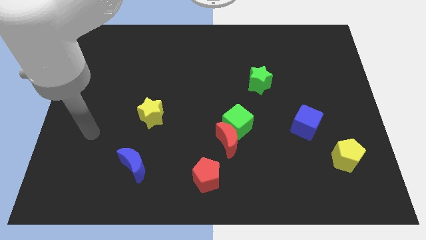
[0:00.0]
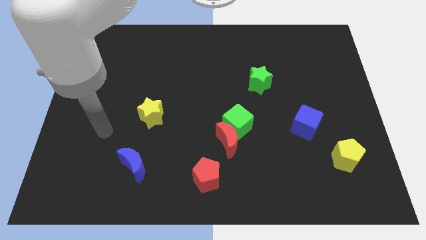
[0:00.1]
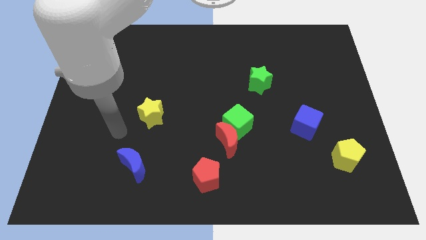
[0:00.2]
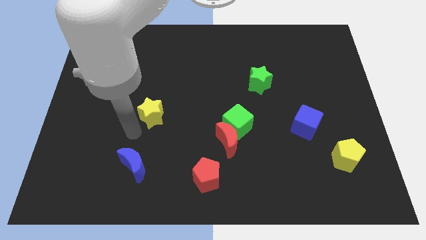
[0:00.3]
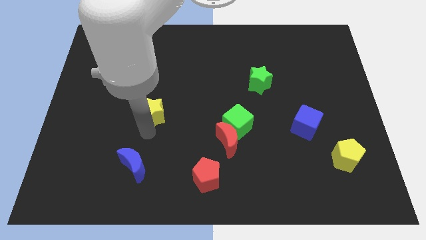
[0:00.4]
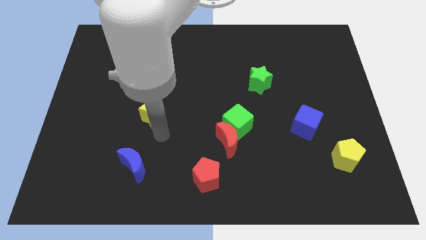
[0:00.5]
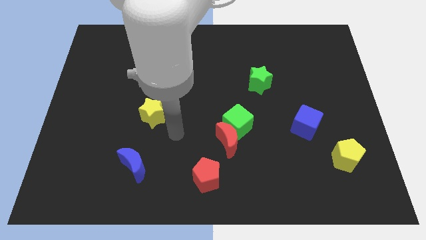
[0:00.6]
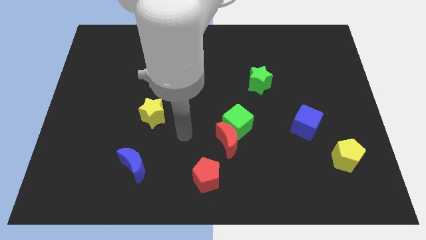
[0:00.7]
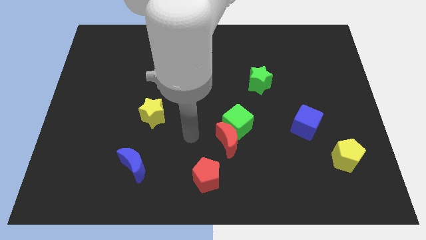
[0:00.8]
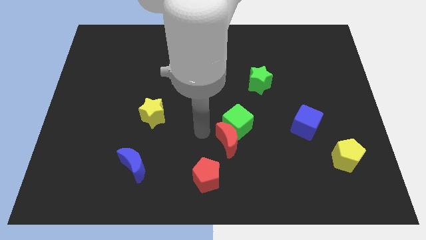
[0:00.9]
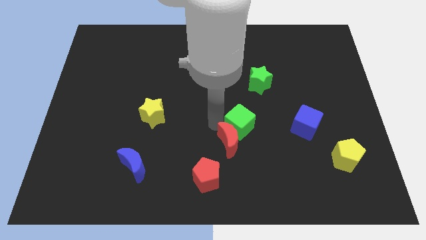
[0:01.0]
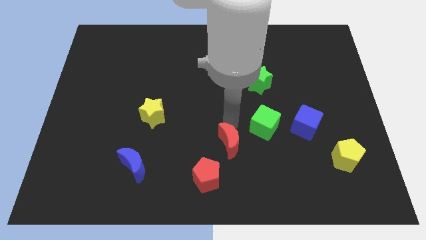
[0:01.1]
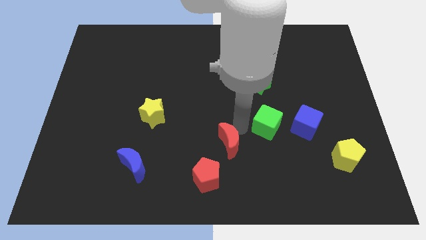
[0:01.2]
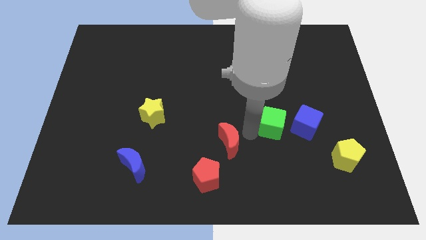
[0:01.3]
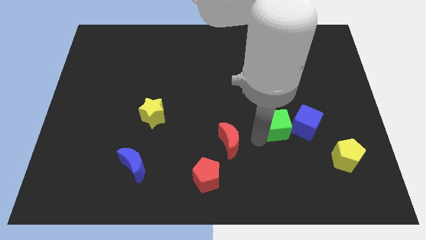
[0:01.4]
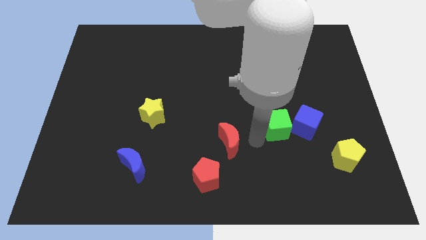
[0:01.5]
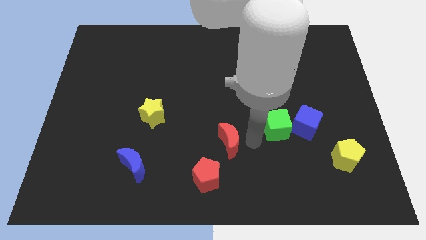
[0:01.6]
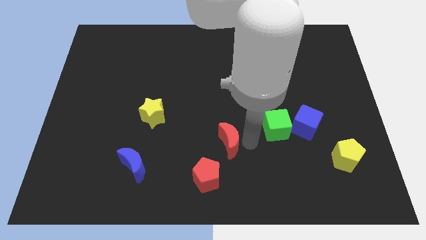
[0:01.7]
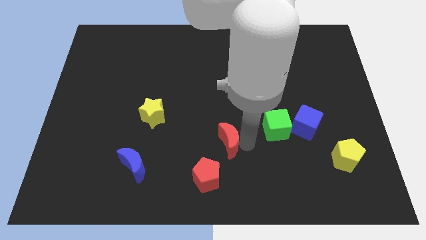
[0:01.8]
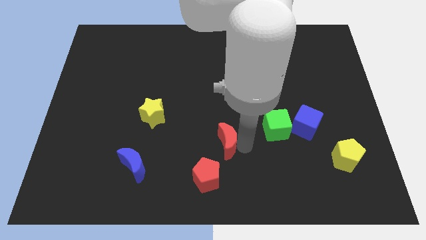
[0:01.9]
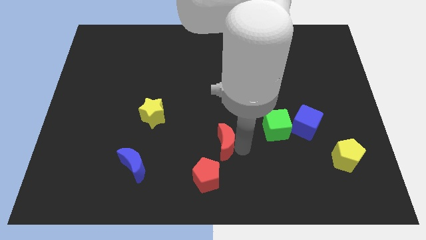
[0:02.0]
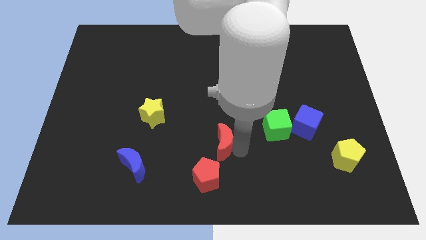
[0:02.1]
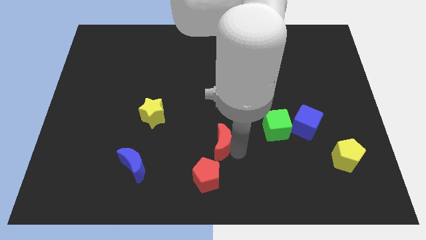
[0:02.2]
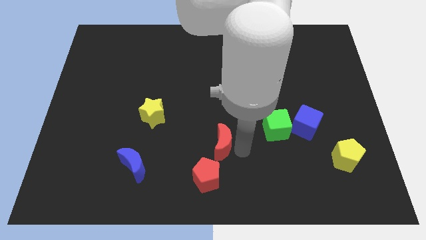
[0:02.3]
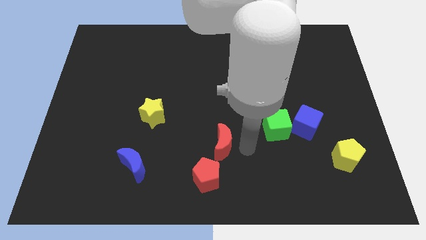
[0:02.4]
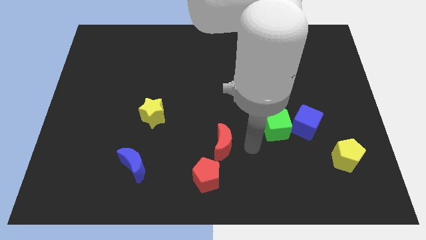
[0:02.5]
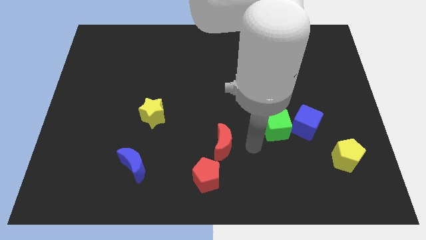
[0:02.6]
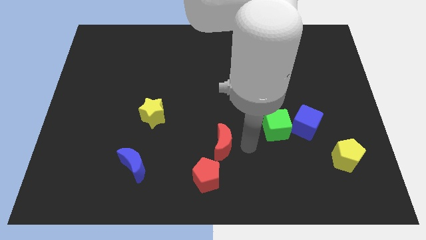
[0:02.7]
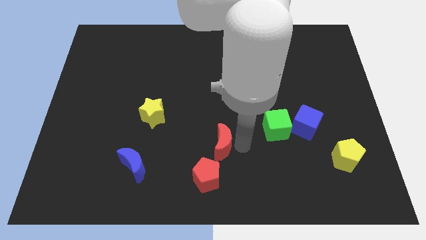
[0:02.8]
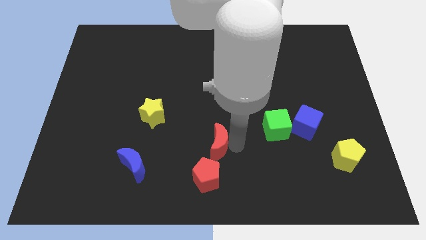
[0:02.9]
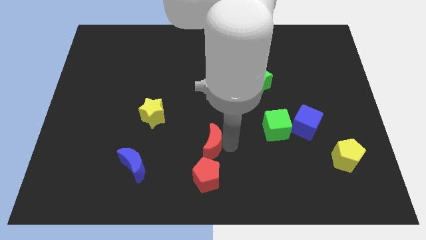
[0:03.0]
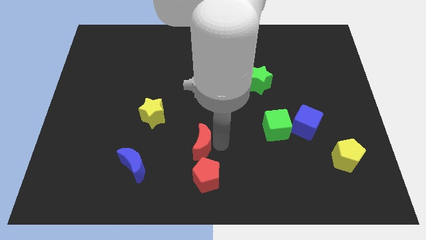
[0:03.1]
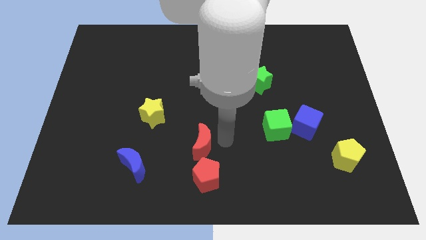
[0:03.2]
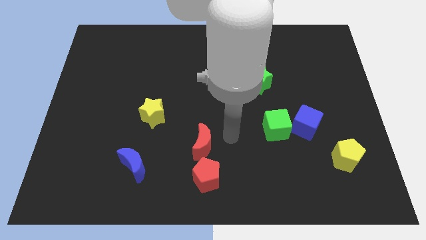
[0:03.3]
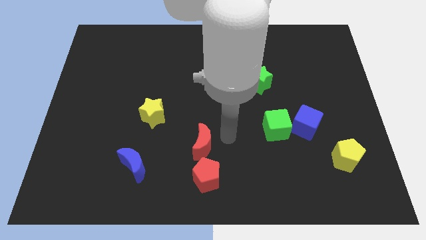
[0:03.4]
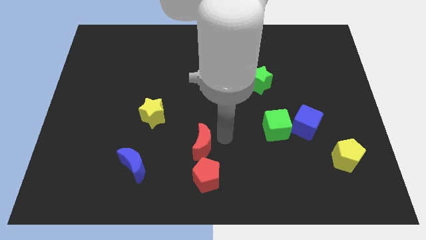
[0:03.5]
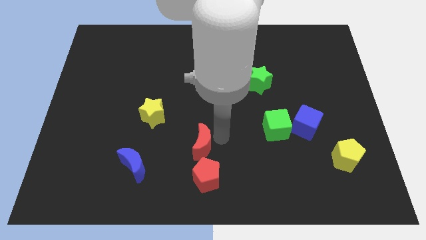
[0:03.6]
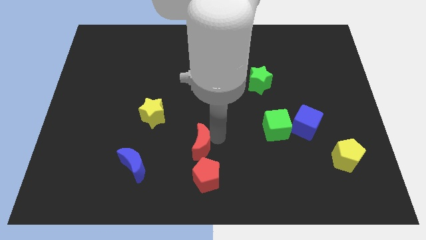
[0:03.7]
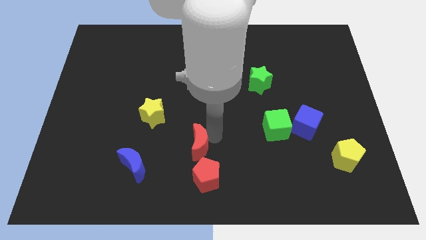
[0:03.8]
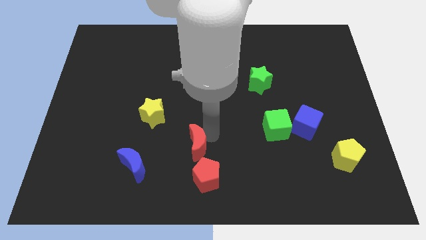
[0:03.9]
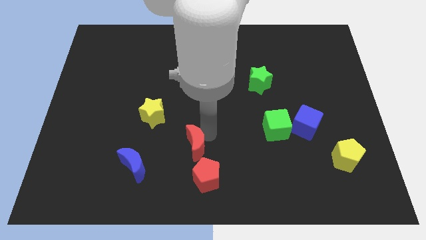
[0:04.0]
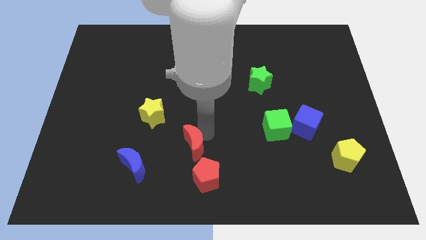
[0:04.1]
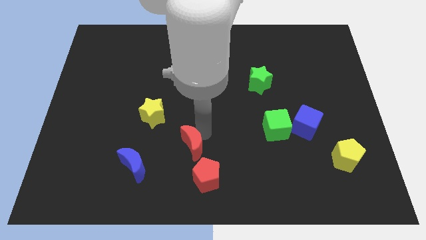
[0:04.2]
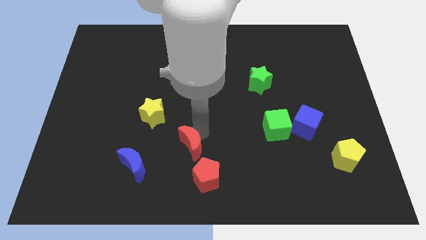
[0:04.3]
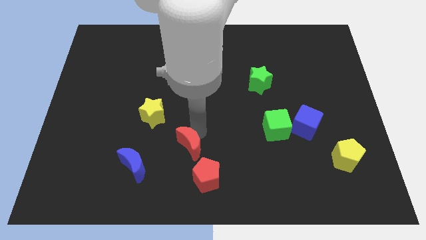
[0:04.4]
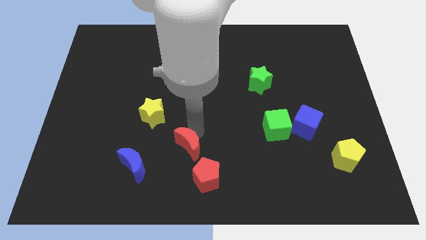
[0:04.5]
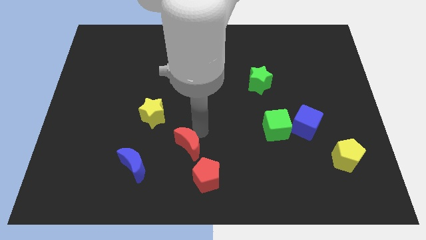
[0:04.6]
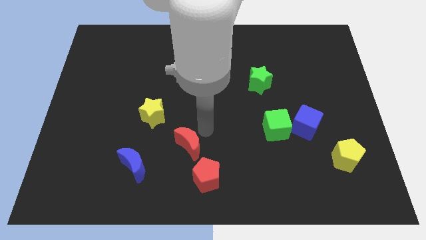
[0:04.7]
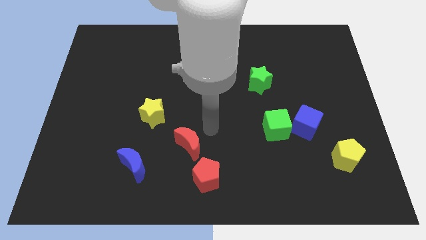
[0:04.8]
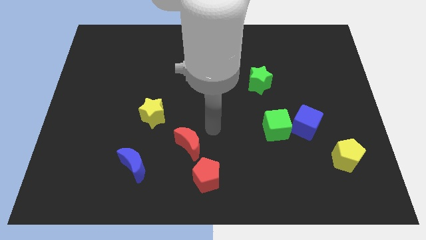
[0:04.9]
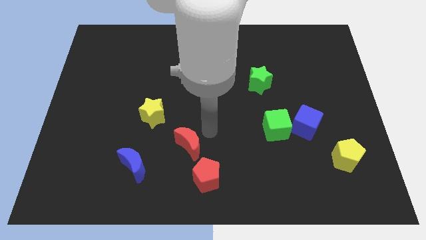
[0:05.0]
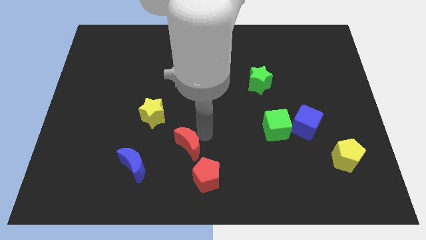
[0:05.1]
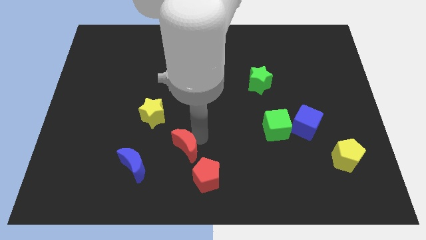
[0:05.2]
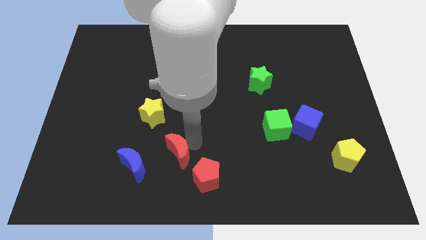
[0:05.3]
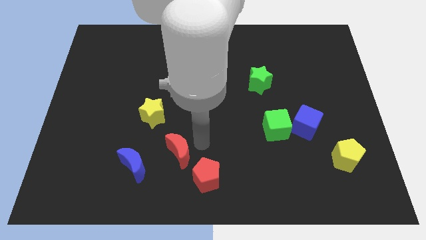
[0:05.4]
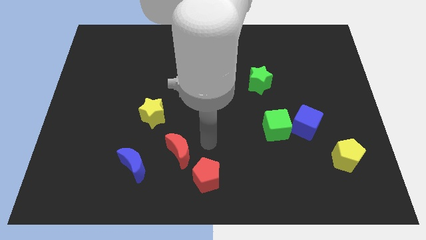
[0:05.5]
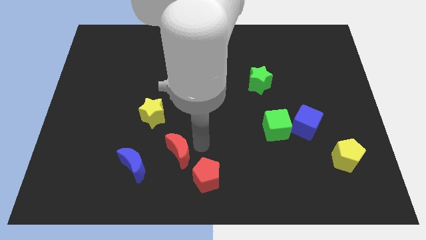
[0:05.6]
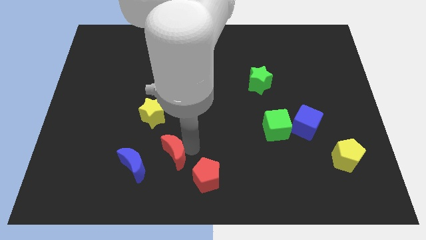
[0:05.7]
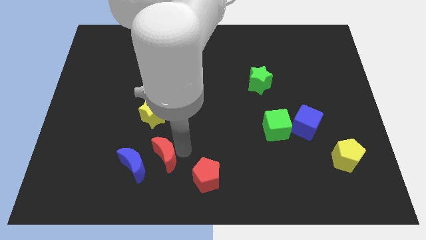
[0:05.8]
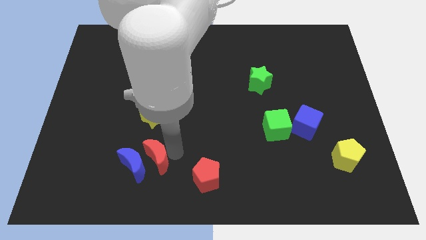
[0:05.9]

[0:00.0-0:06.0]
move the red moon to the blue moon

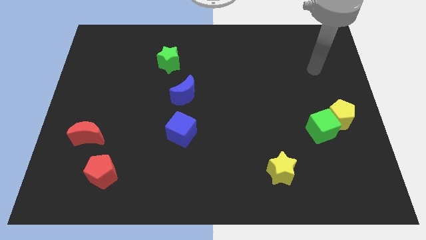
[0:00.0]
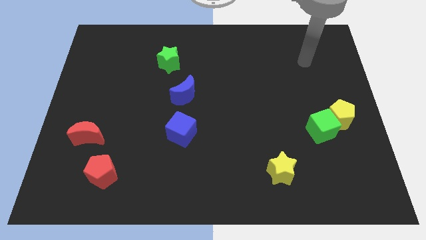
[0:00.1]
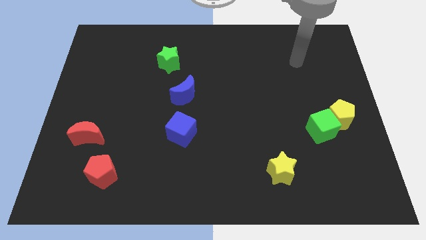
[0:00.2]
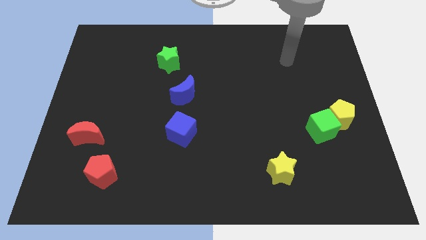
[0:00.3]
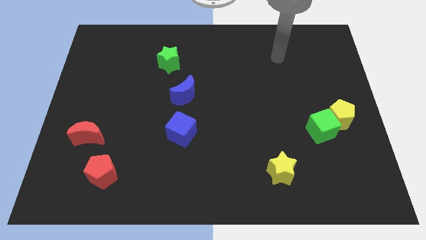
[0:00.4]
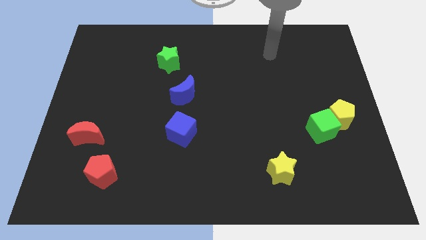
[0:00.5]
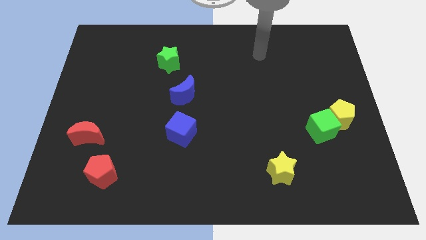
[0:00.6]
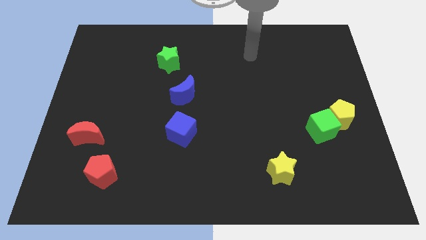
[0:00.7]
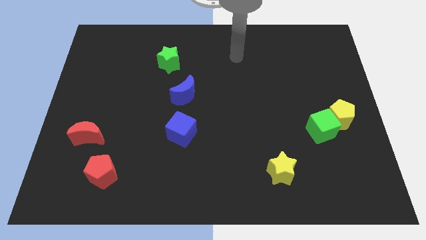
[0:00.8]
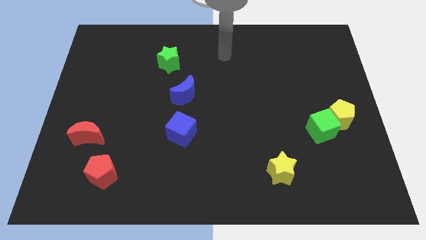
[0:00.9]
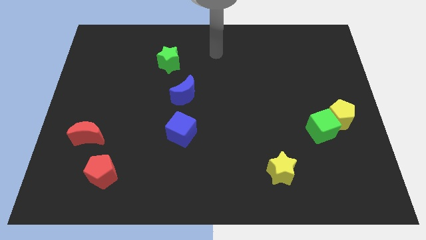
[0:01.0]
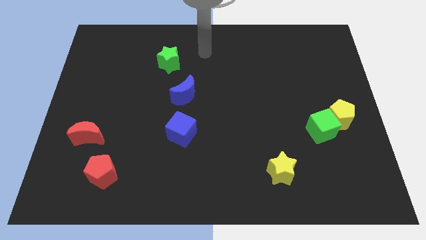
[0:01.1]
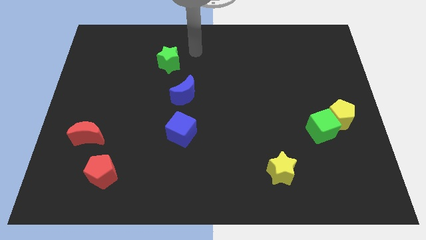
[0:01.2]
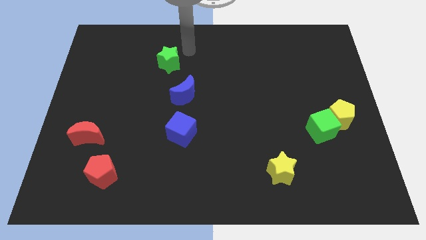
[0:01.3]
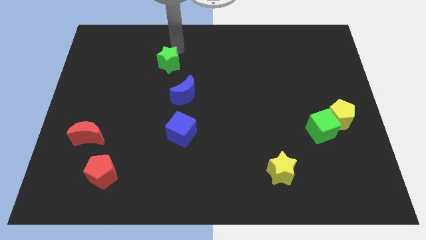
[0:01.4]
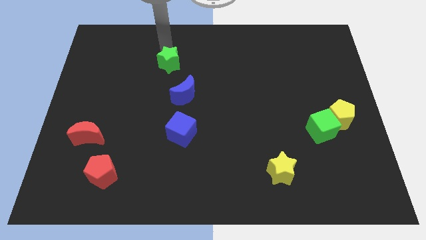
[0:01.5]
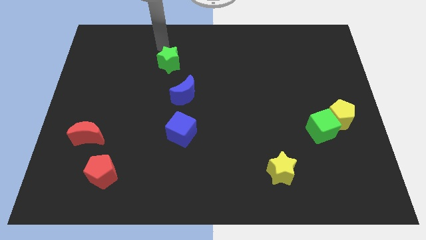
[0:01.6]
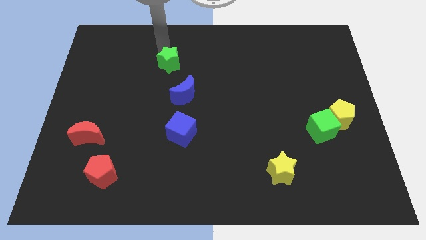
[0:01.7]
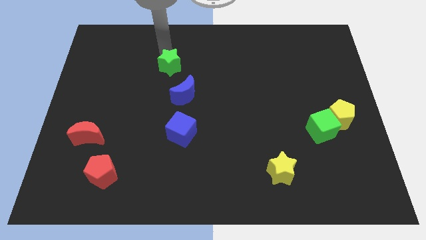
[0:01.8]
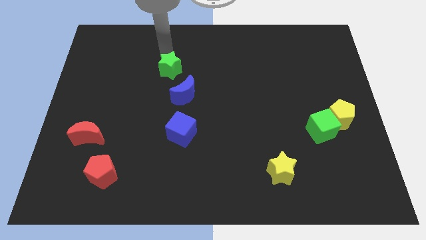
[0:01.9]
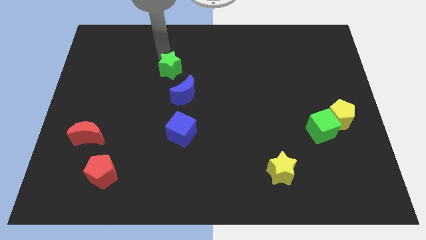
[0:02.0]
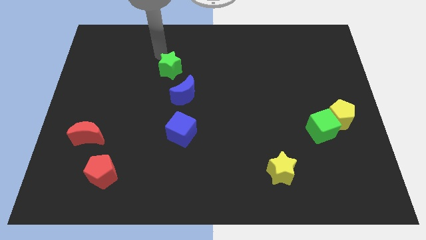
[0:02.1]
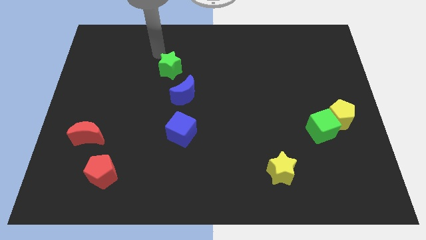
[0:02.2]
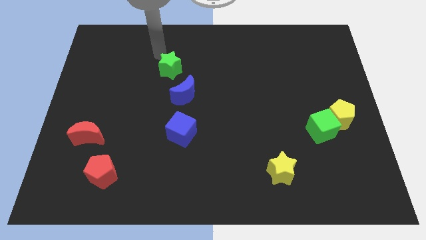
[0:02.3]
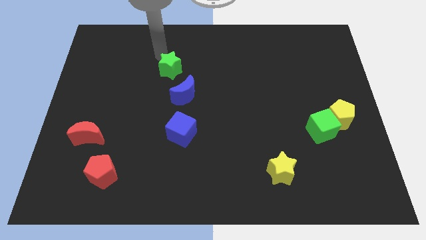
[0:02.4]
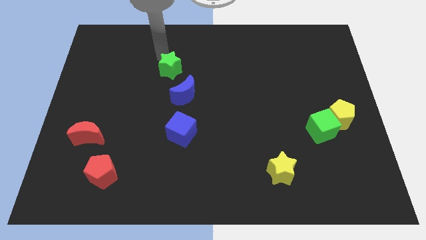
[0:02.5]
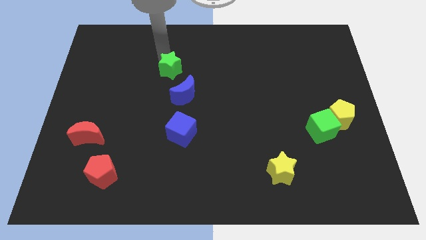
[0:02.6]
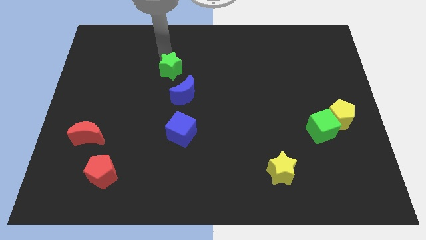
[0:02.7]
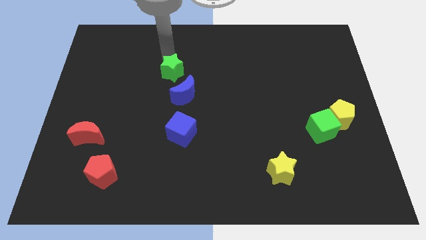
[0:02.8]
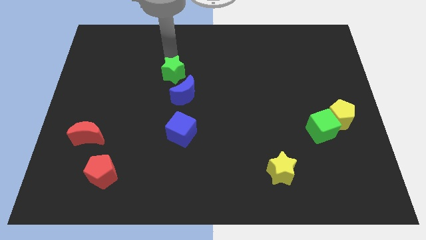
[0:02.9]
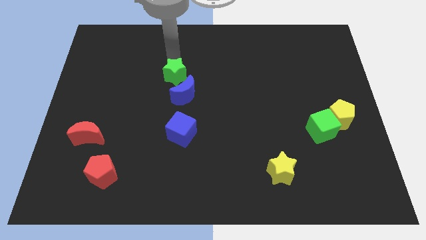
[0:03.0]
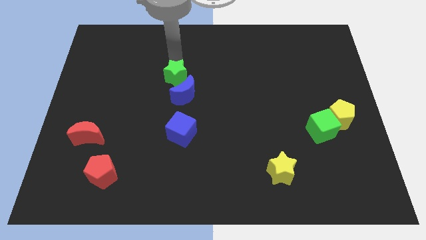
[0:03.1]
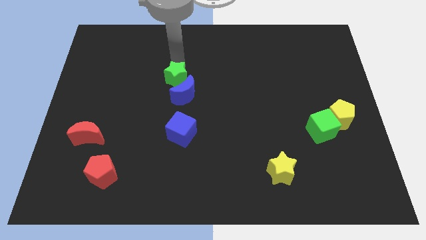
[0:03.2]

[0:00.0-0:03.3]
move the green star close to the blue moon
